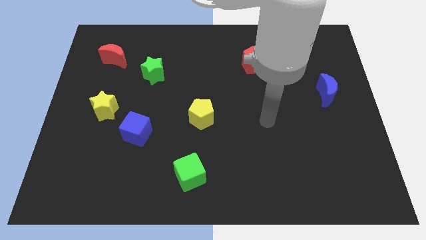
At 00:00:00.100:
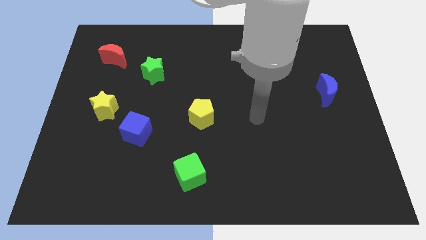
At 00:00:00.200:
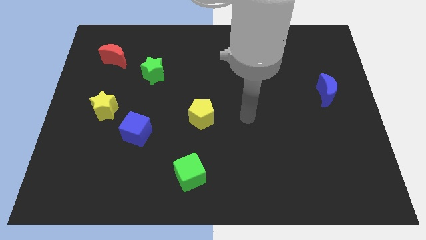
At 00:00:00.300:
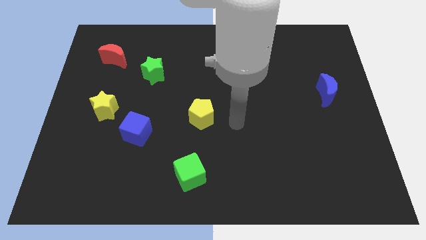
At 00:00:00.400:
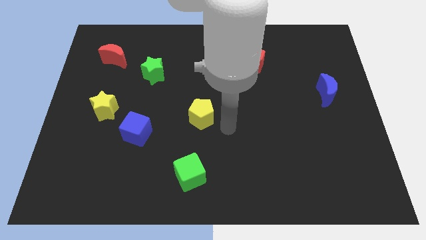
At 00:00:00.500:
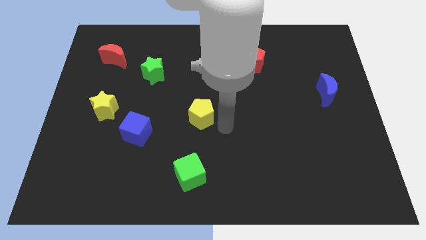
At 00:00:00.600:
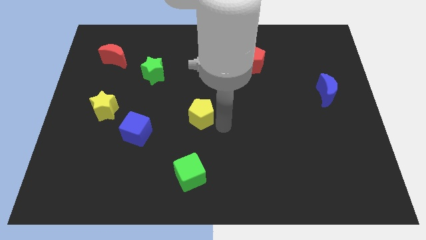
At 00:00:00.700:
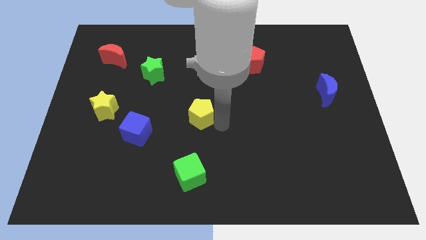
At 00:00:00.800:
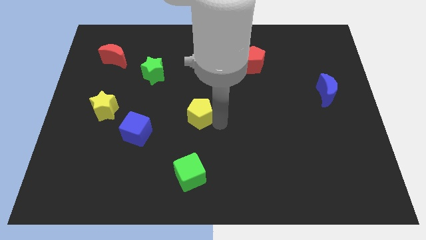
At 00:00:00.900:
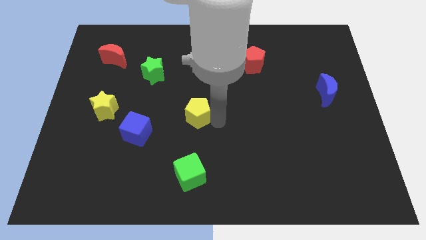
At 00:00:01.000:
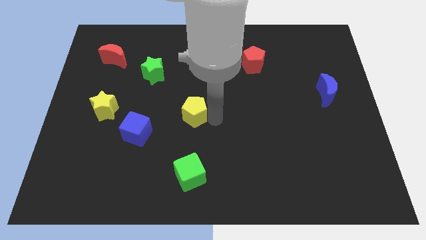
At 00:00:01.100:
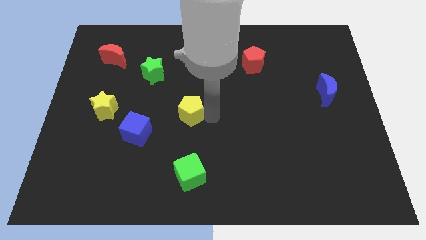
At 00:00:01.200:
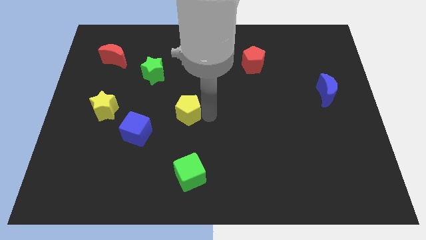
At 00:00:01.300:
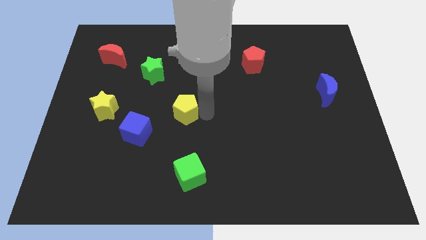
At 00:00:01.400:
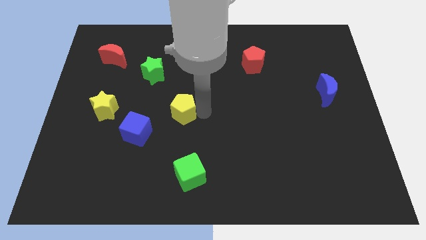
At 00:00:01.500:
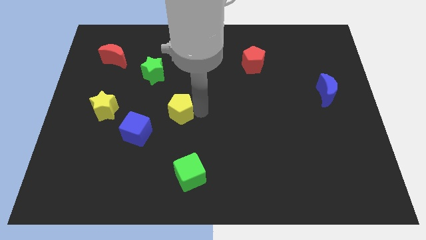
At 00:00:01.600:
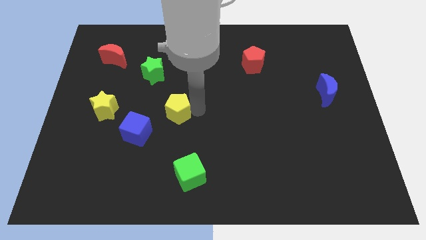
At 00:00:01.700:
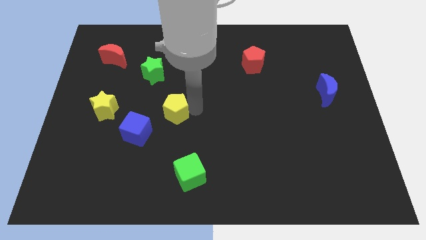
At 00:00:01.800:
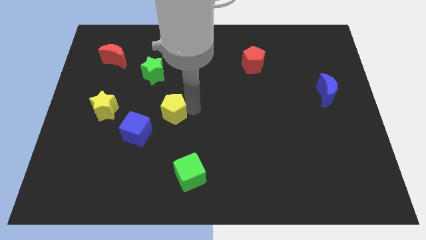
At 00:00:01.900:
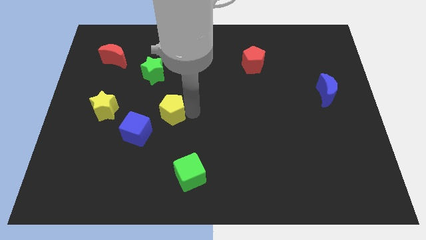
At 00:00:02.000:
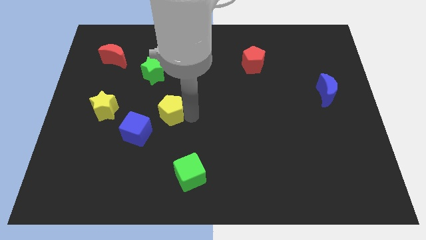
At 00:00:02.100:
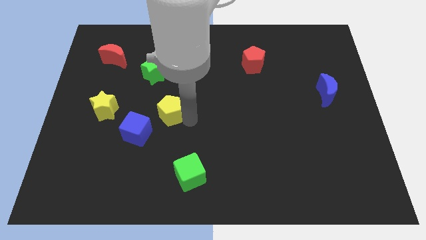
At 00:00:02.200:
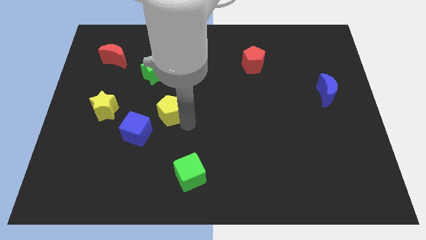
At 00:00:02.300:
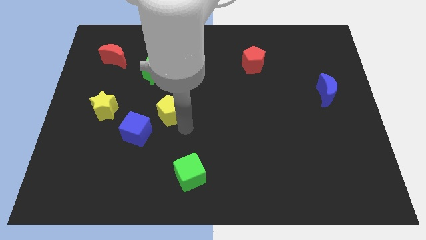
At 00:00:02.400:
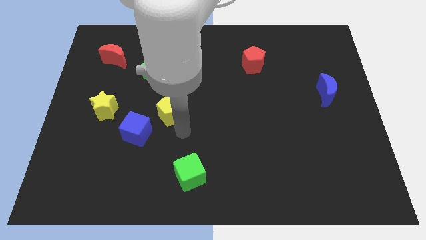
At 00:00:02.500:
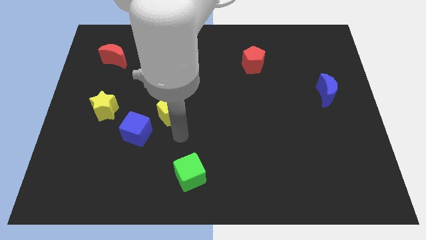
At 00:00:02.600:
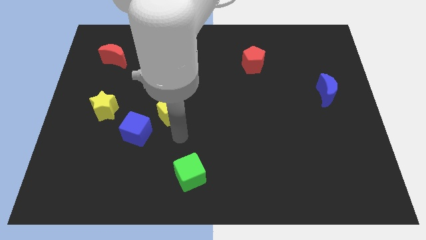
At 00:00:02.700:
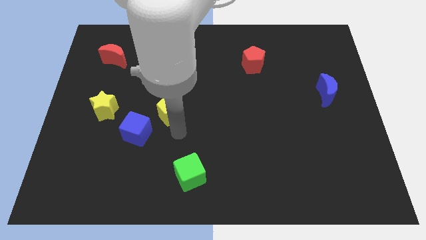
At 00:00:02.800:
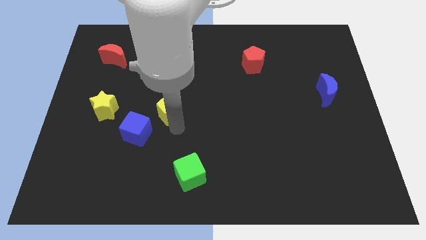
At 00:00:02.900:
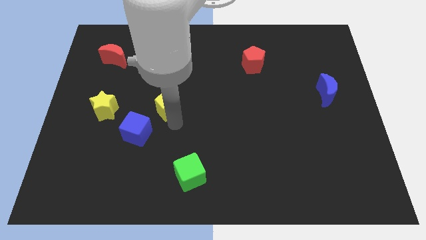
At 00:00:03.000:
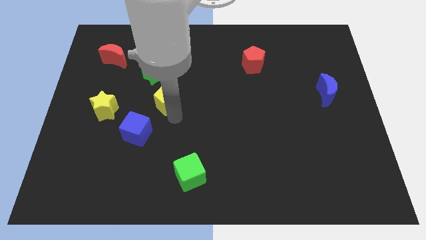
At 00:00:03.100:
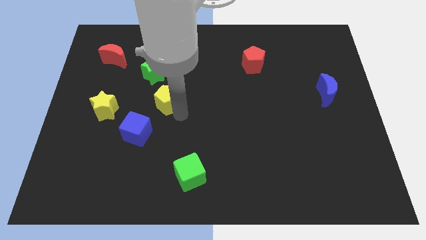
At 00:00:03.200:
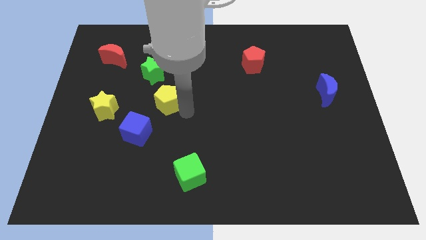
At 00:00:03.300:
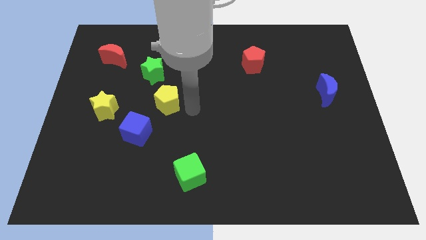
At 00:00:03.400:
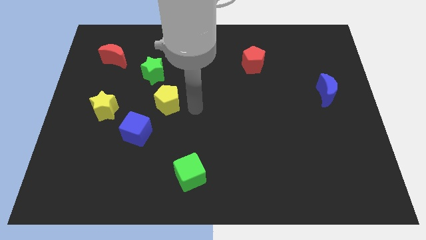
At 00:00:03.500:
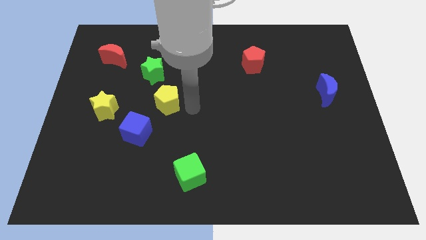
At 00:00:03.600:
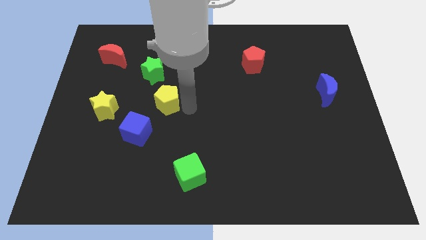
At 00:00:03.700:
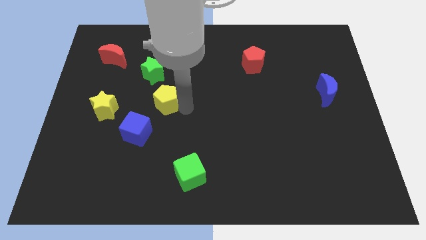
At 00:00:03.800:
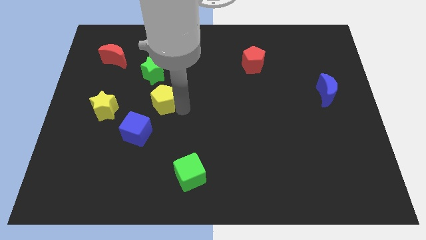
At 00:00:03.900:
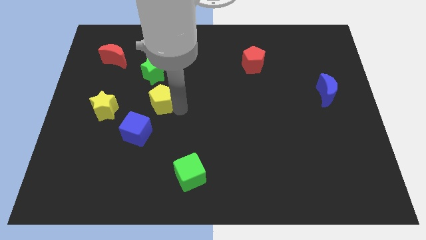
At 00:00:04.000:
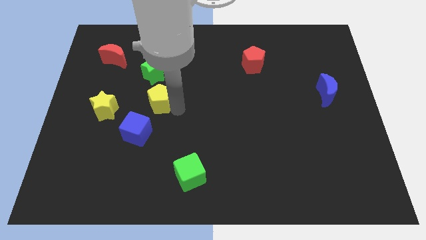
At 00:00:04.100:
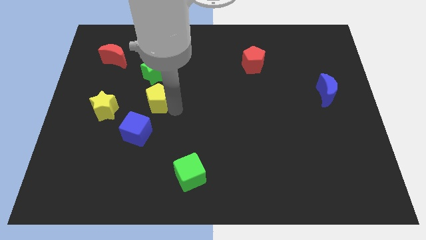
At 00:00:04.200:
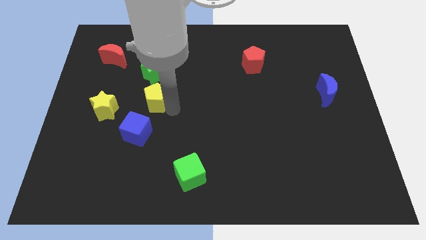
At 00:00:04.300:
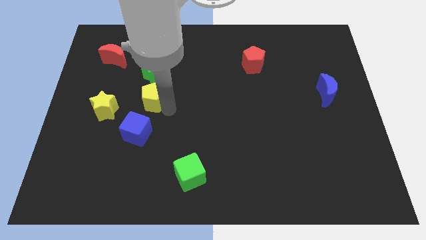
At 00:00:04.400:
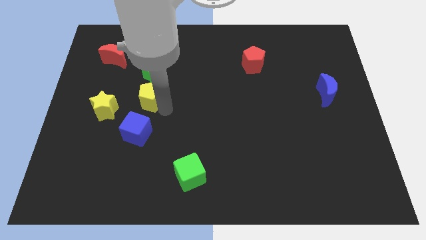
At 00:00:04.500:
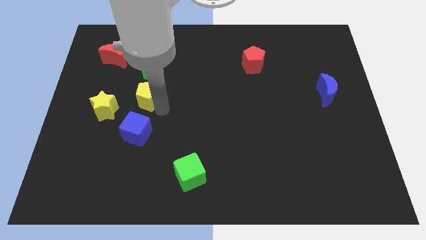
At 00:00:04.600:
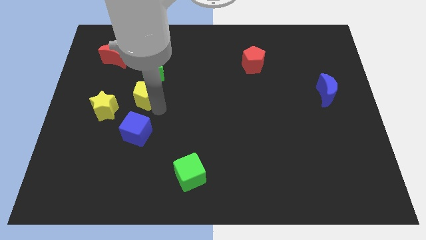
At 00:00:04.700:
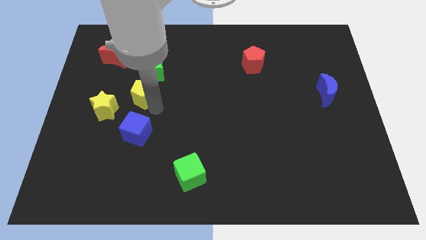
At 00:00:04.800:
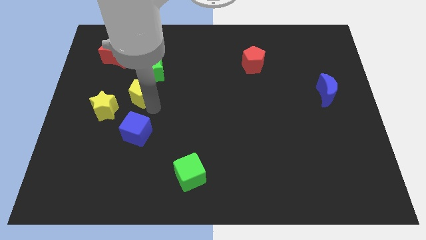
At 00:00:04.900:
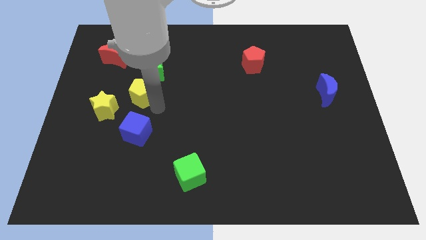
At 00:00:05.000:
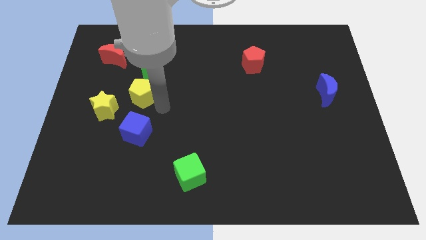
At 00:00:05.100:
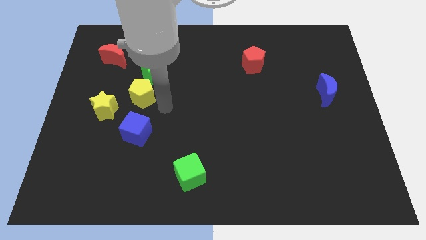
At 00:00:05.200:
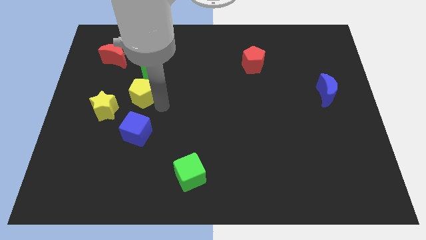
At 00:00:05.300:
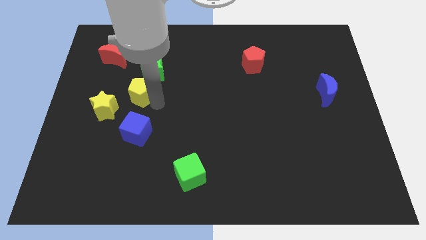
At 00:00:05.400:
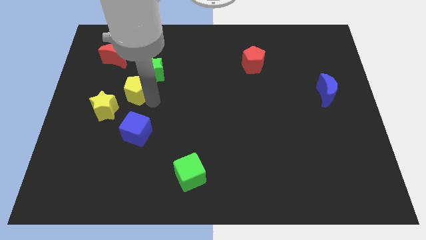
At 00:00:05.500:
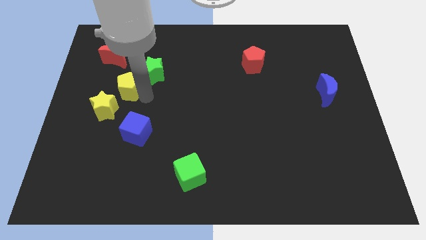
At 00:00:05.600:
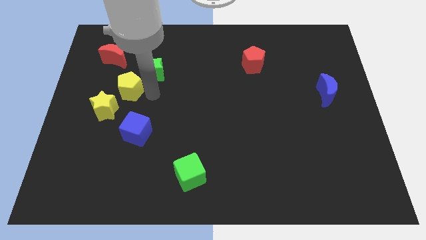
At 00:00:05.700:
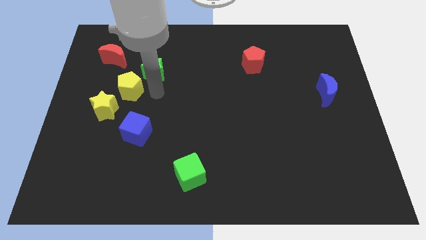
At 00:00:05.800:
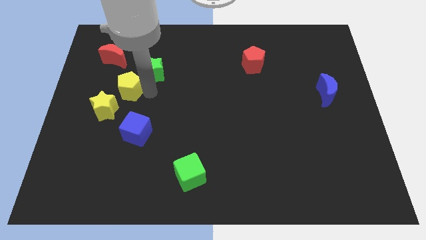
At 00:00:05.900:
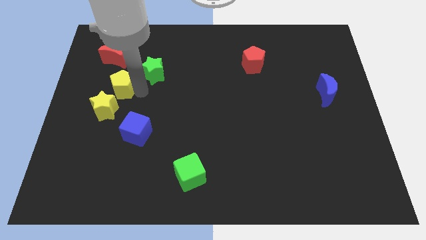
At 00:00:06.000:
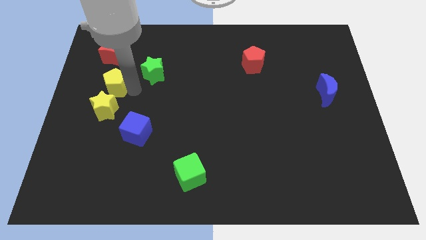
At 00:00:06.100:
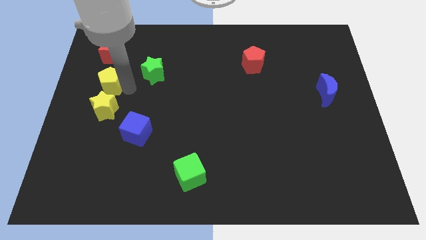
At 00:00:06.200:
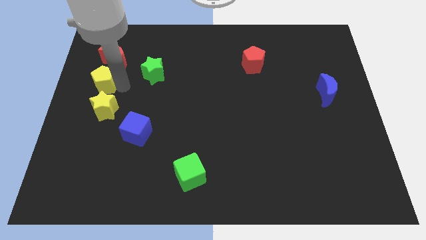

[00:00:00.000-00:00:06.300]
slide the yellow pentagon to the center left

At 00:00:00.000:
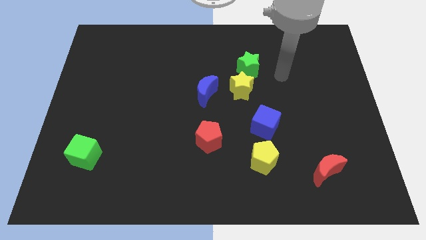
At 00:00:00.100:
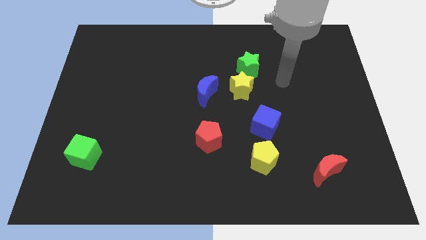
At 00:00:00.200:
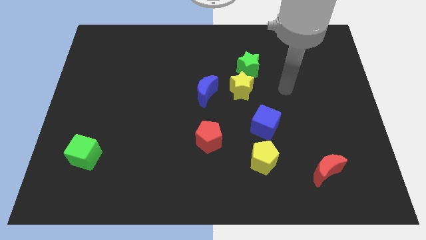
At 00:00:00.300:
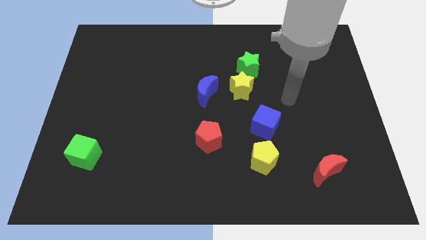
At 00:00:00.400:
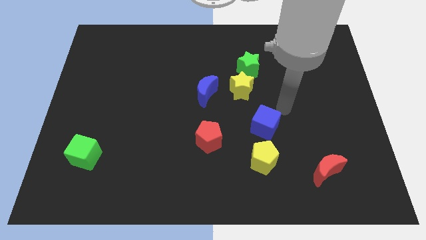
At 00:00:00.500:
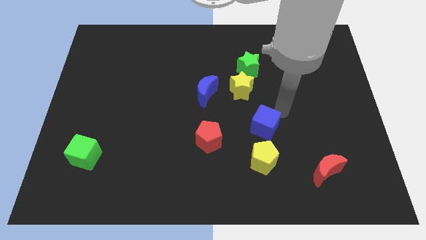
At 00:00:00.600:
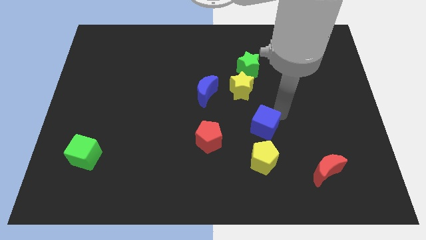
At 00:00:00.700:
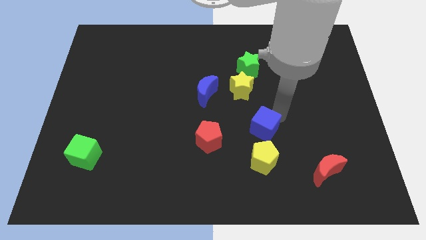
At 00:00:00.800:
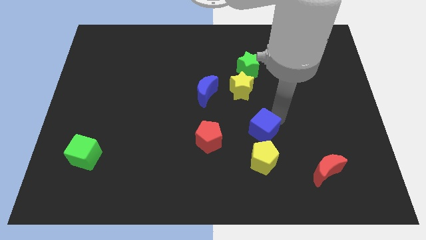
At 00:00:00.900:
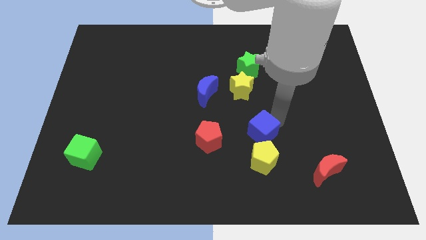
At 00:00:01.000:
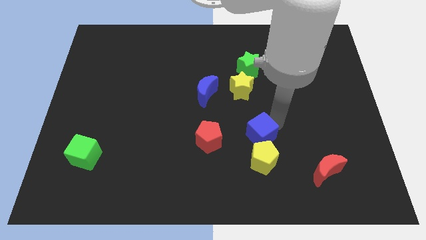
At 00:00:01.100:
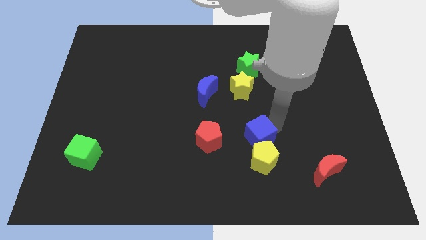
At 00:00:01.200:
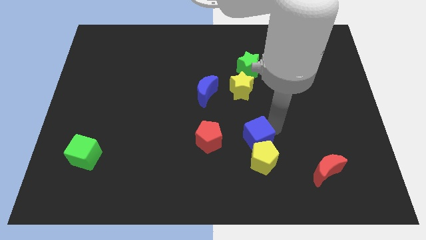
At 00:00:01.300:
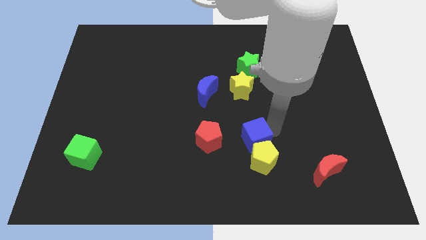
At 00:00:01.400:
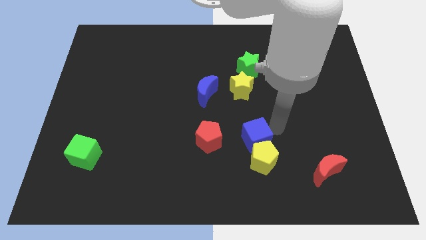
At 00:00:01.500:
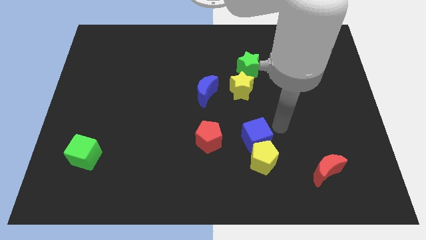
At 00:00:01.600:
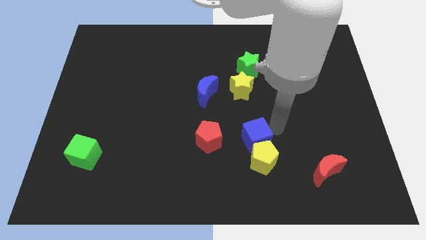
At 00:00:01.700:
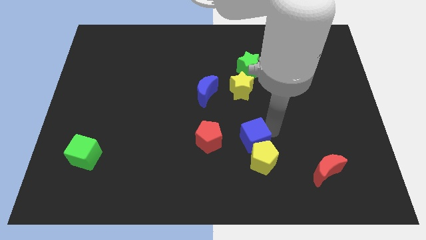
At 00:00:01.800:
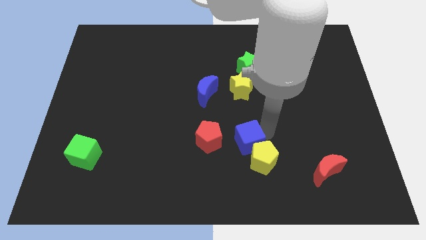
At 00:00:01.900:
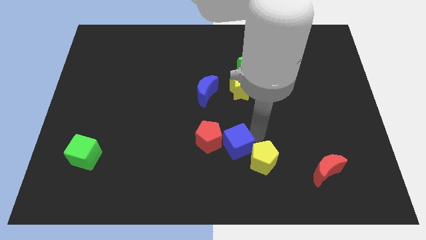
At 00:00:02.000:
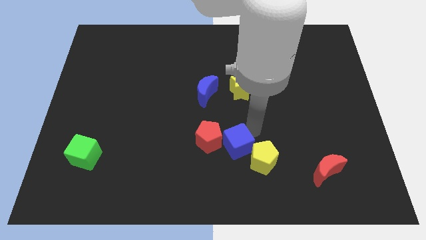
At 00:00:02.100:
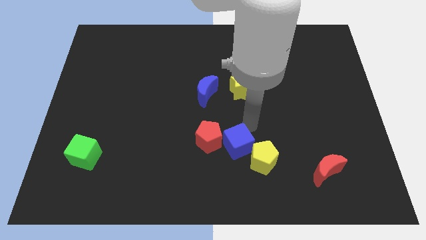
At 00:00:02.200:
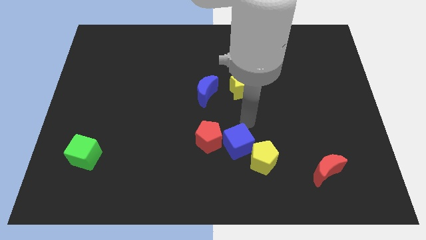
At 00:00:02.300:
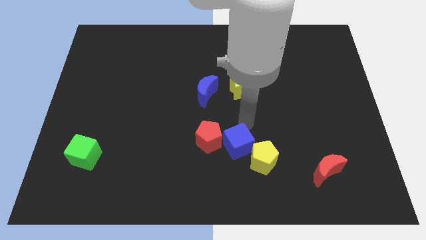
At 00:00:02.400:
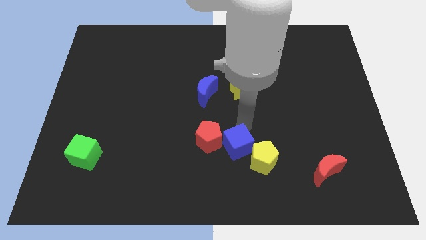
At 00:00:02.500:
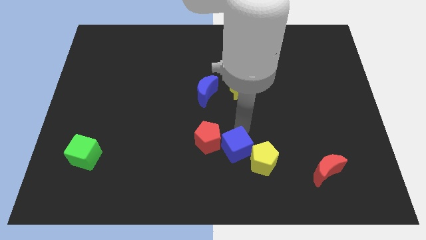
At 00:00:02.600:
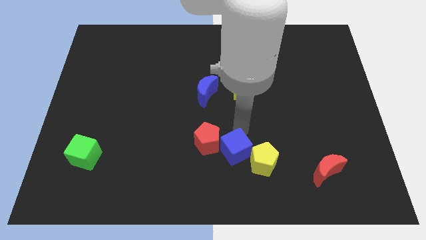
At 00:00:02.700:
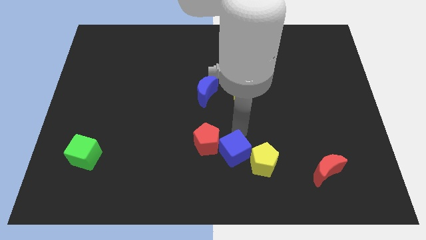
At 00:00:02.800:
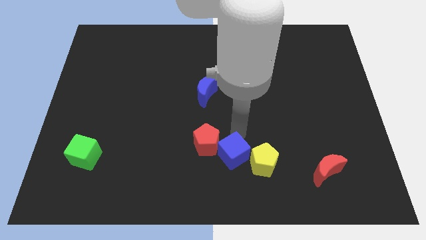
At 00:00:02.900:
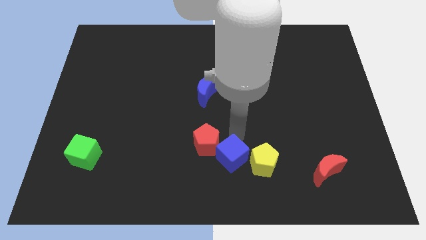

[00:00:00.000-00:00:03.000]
put the blue cube to the bottom
